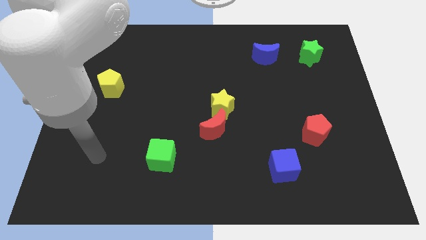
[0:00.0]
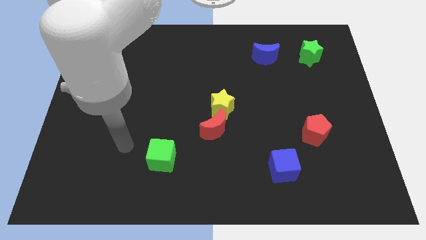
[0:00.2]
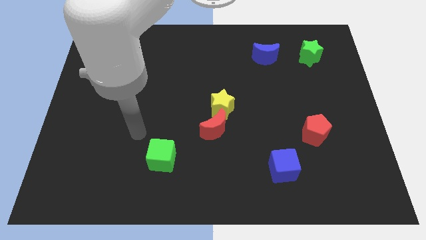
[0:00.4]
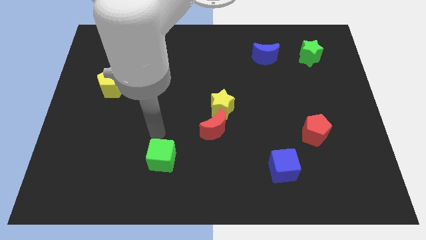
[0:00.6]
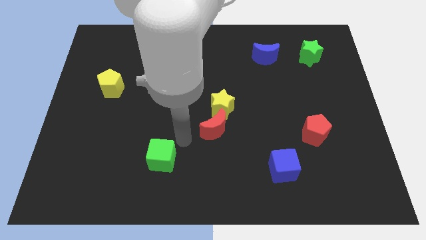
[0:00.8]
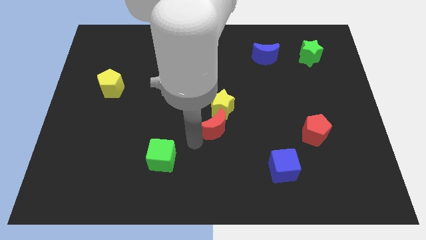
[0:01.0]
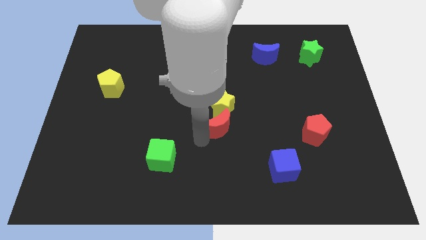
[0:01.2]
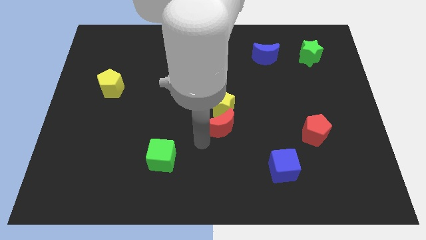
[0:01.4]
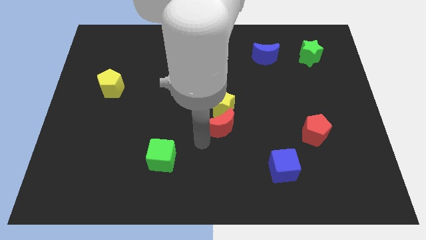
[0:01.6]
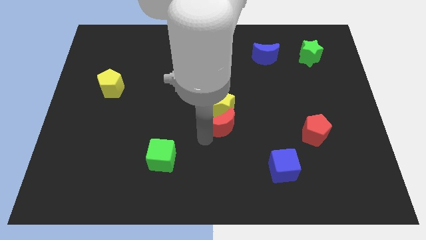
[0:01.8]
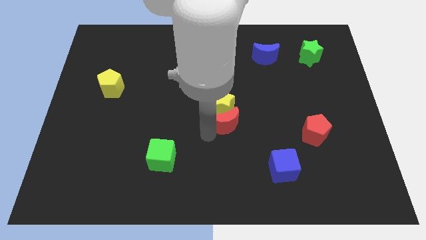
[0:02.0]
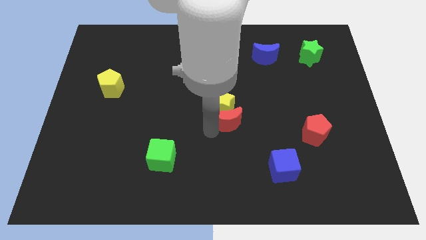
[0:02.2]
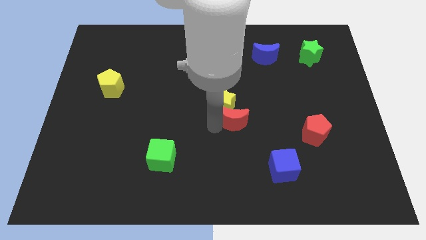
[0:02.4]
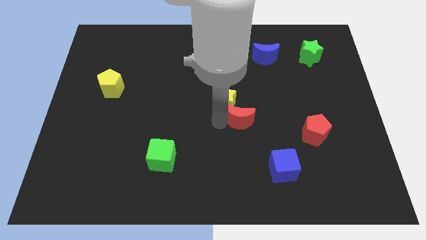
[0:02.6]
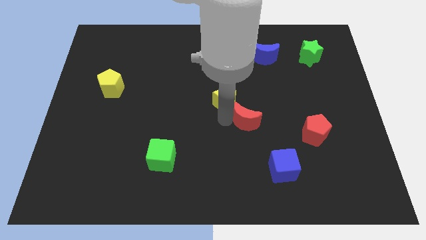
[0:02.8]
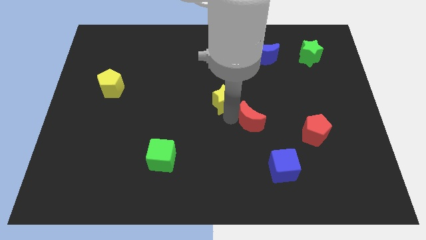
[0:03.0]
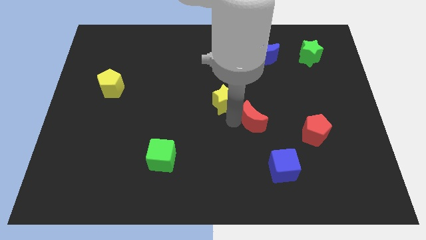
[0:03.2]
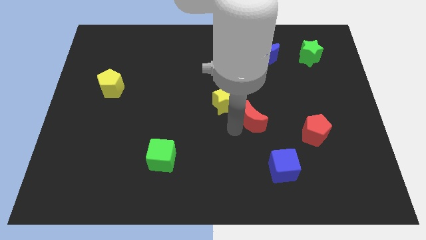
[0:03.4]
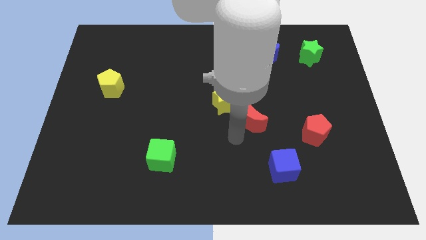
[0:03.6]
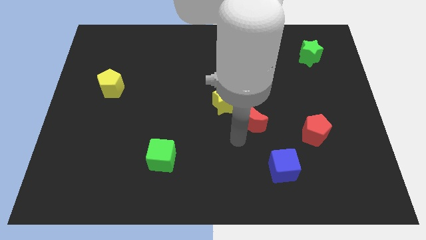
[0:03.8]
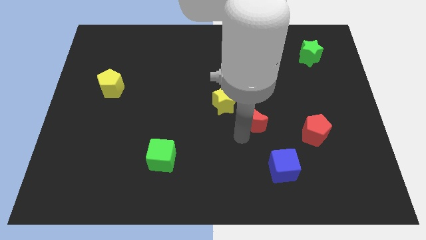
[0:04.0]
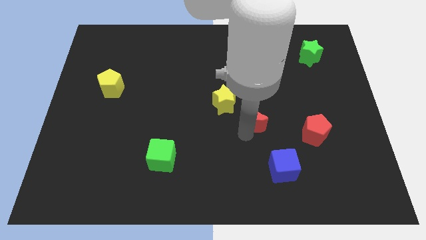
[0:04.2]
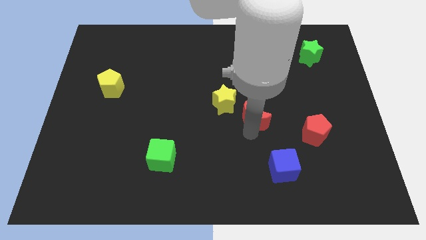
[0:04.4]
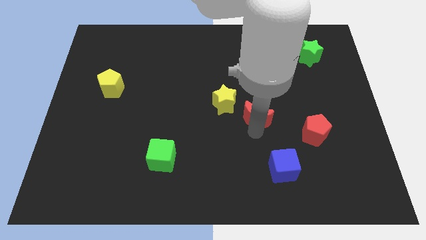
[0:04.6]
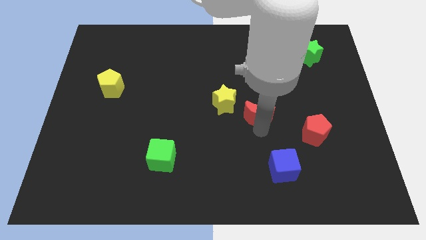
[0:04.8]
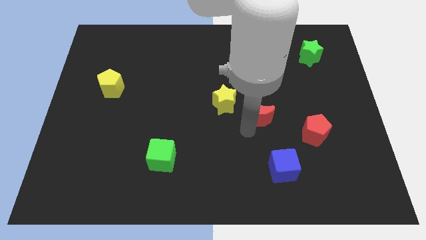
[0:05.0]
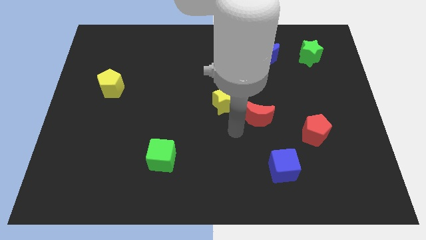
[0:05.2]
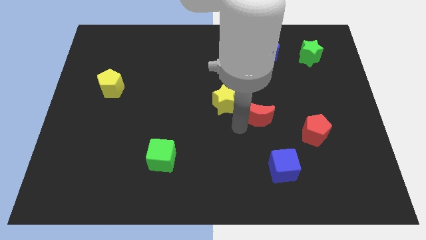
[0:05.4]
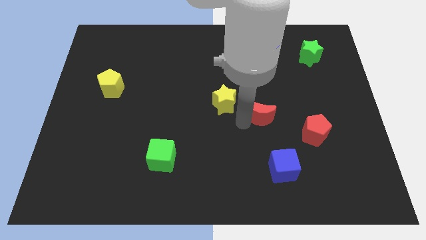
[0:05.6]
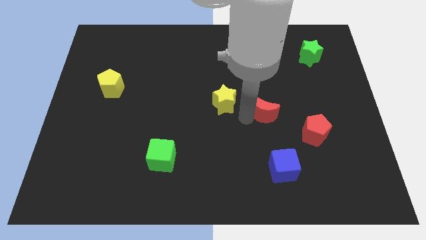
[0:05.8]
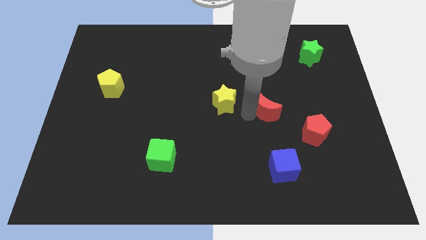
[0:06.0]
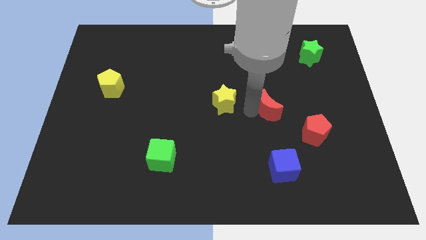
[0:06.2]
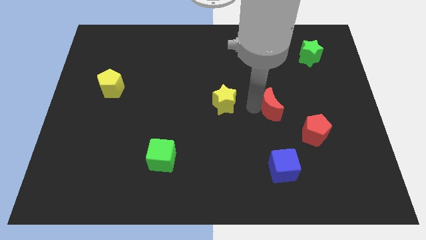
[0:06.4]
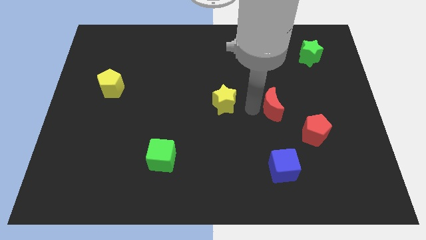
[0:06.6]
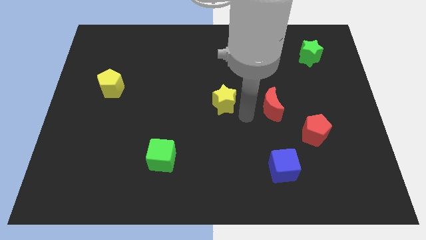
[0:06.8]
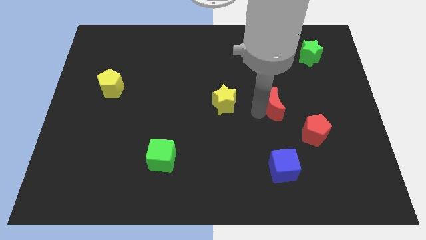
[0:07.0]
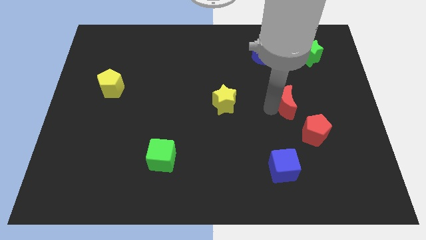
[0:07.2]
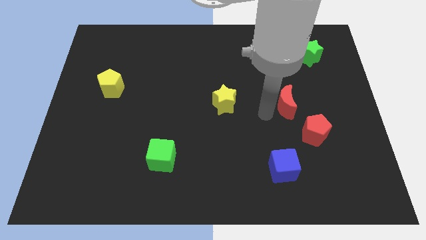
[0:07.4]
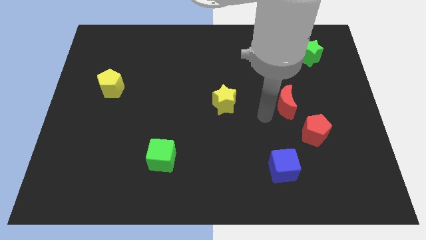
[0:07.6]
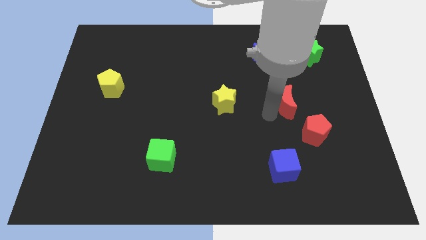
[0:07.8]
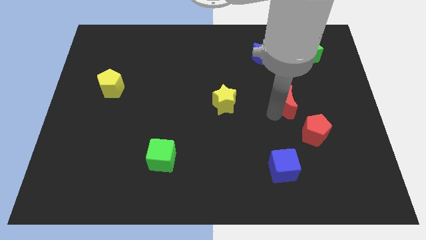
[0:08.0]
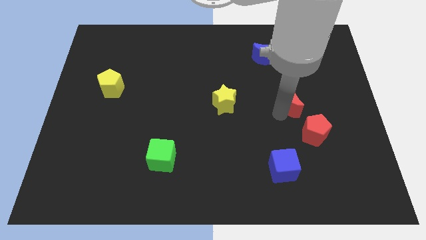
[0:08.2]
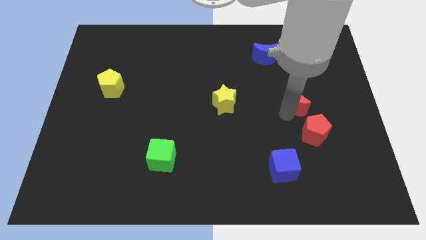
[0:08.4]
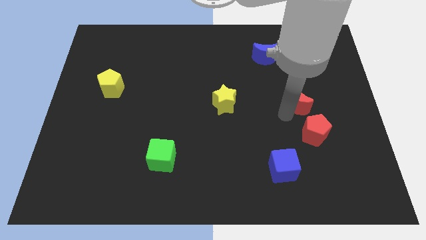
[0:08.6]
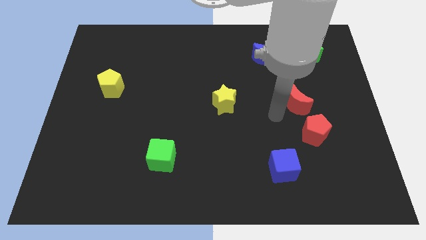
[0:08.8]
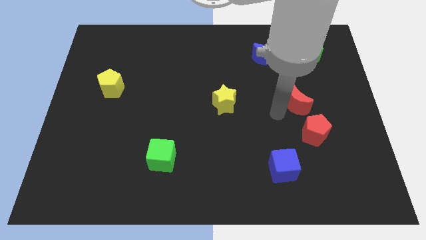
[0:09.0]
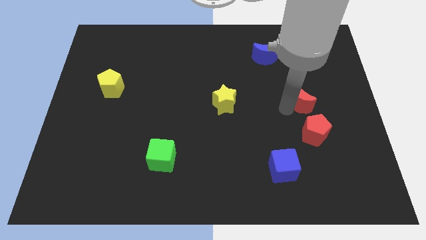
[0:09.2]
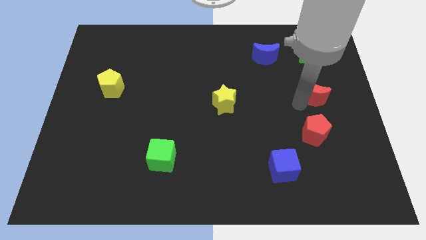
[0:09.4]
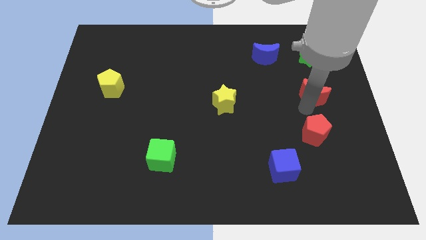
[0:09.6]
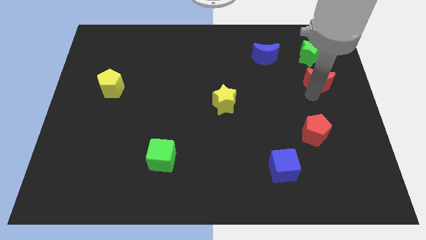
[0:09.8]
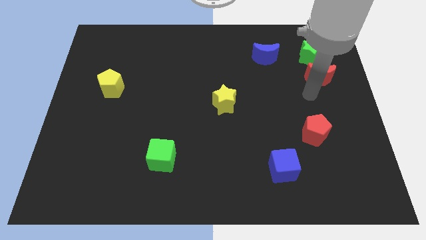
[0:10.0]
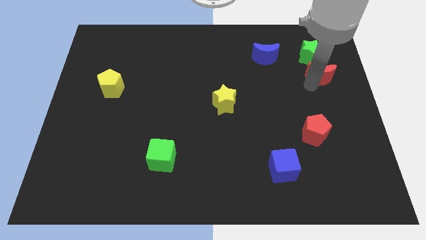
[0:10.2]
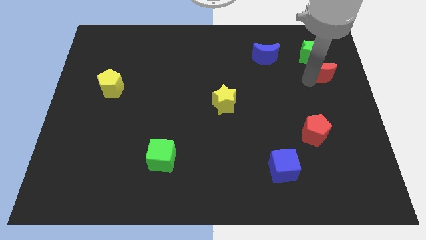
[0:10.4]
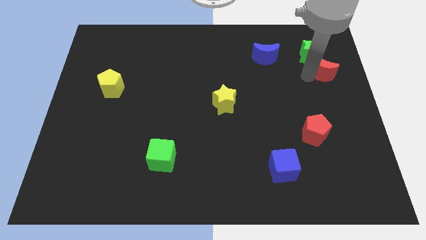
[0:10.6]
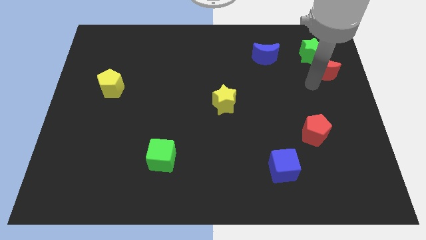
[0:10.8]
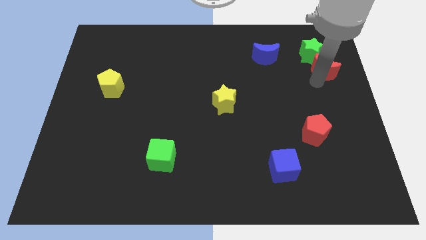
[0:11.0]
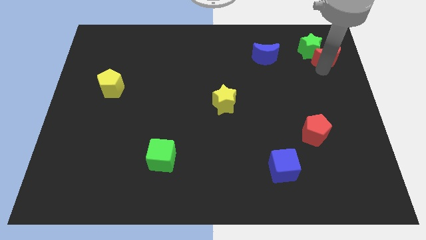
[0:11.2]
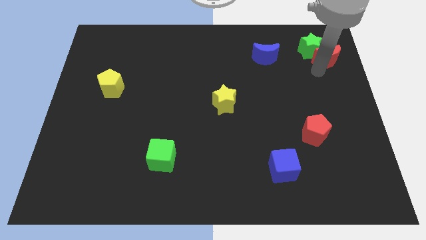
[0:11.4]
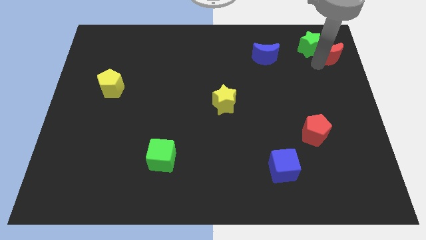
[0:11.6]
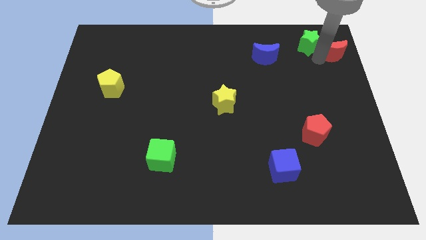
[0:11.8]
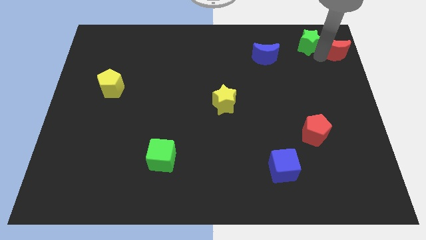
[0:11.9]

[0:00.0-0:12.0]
slide the red moon to the top right of the board
